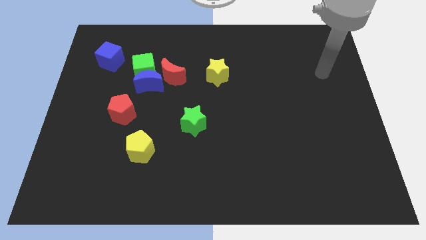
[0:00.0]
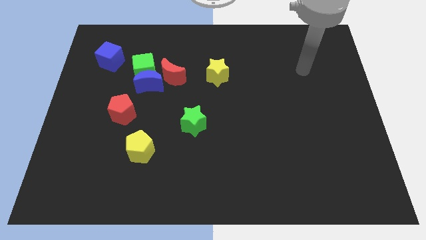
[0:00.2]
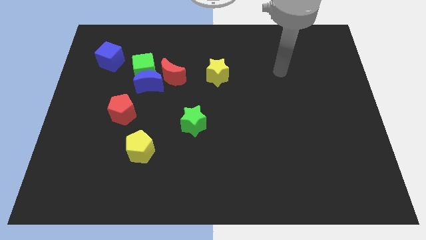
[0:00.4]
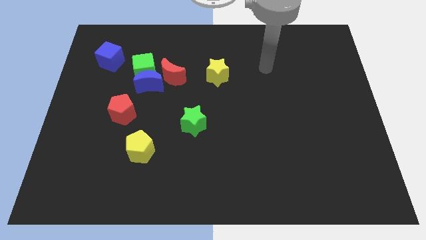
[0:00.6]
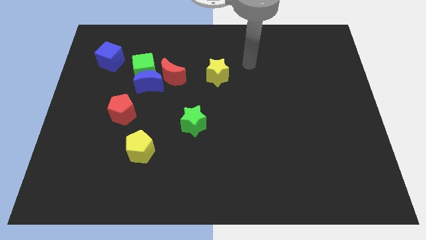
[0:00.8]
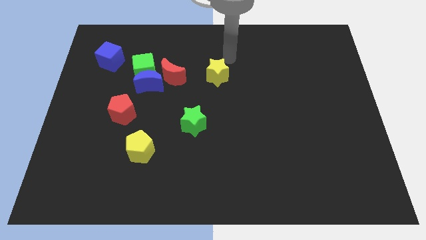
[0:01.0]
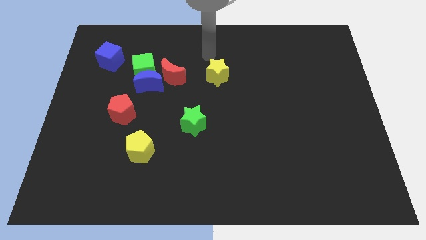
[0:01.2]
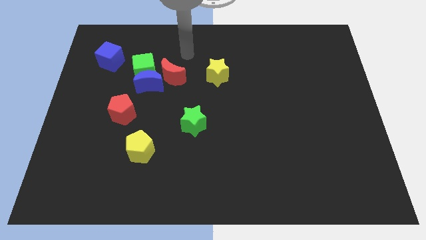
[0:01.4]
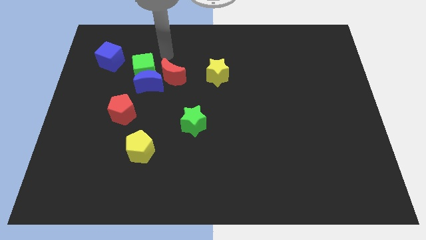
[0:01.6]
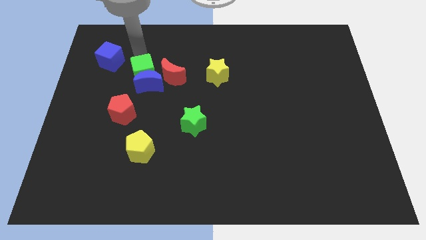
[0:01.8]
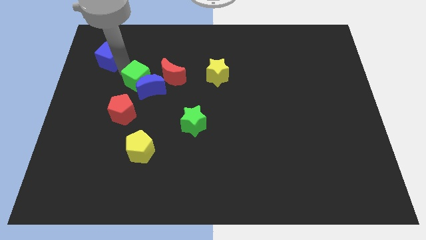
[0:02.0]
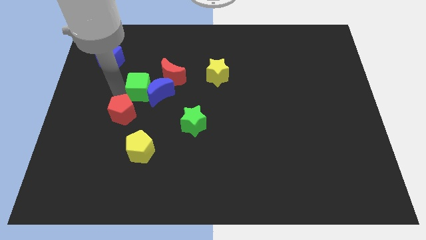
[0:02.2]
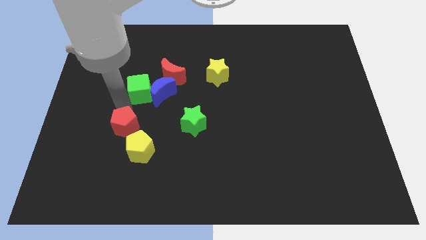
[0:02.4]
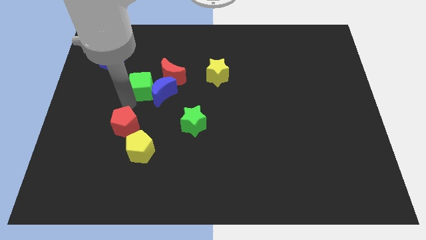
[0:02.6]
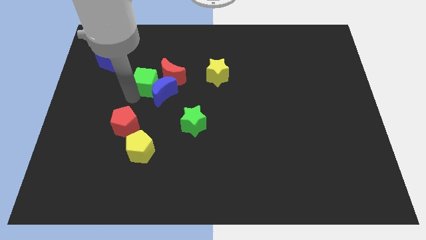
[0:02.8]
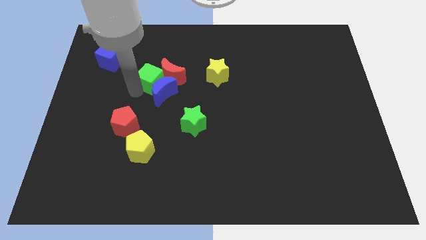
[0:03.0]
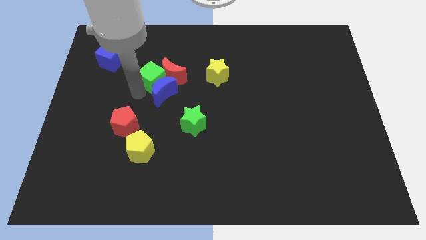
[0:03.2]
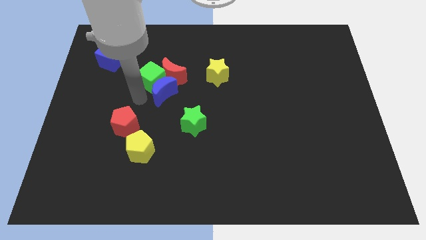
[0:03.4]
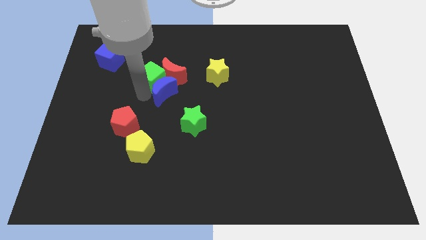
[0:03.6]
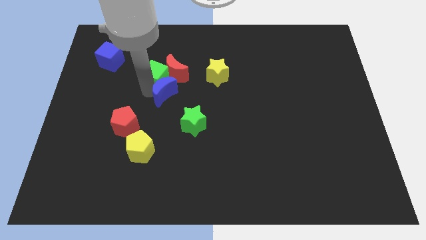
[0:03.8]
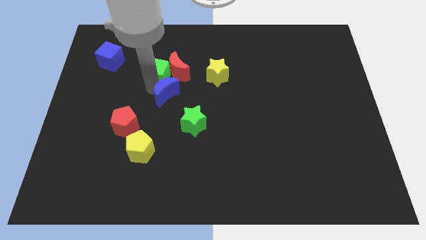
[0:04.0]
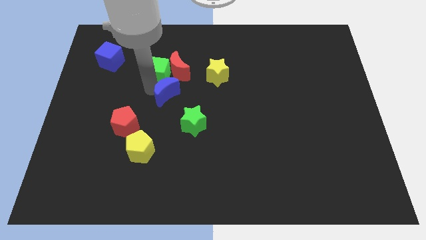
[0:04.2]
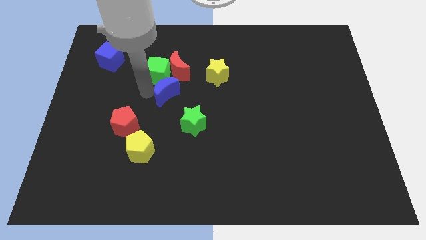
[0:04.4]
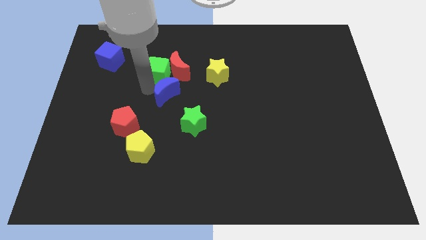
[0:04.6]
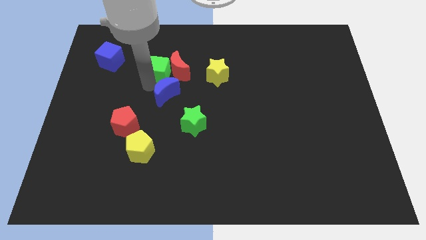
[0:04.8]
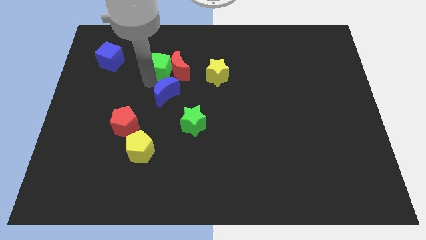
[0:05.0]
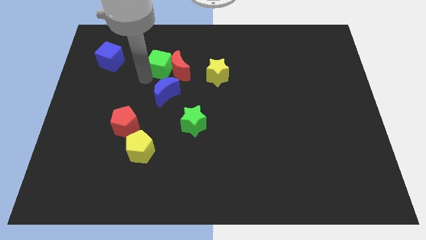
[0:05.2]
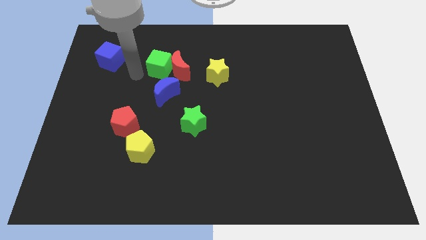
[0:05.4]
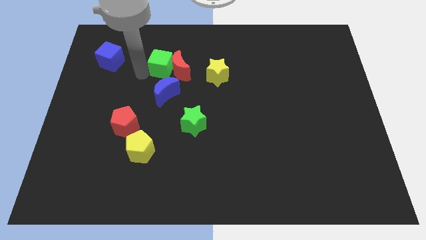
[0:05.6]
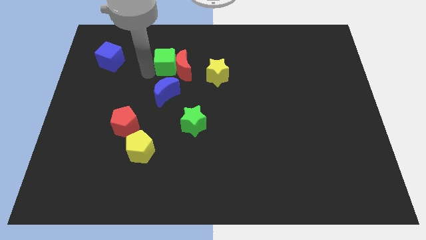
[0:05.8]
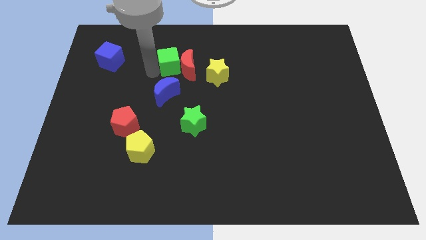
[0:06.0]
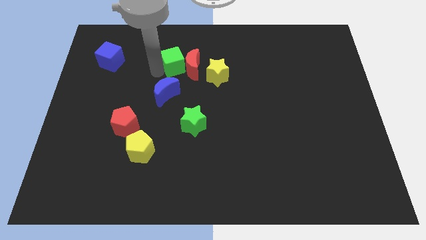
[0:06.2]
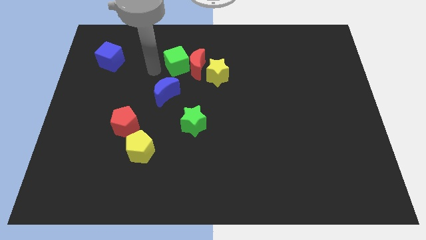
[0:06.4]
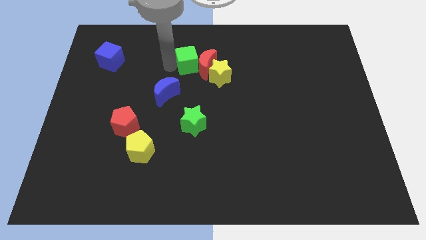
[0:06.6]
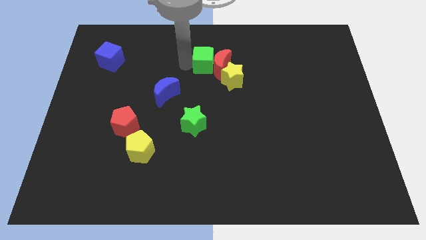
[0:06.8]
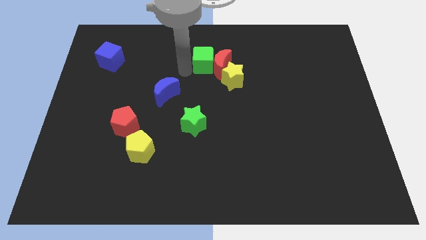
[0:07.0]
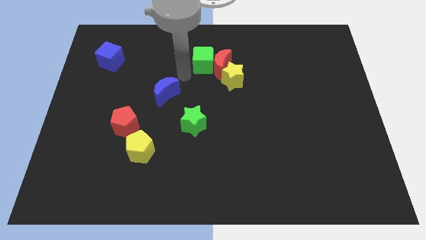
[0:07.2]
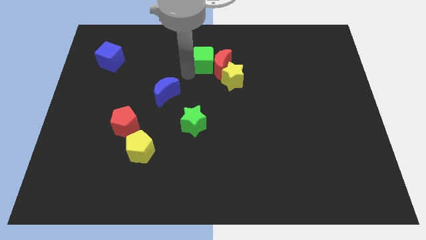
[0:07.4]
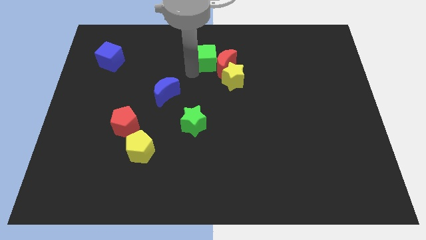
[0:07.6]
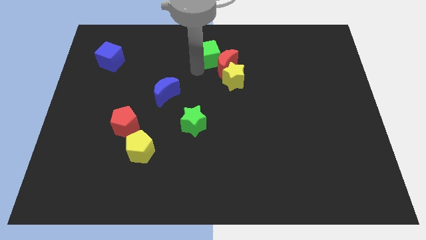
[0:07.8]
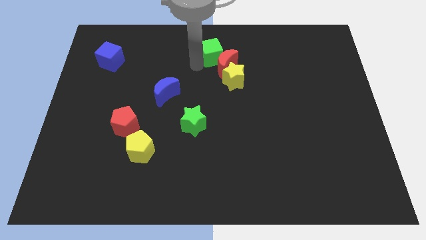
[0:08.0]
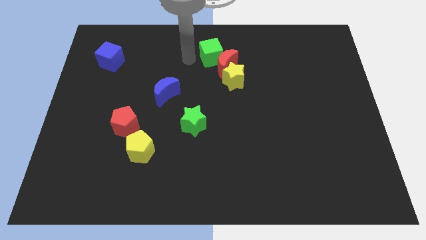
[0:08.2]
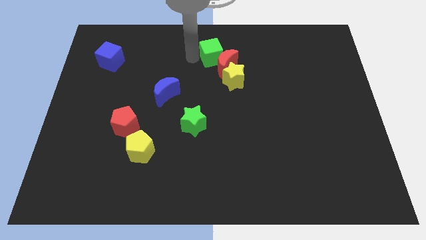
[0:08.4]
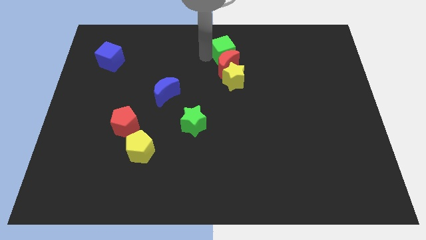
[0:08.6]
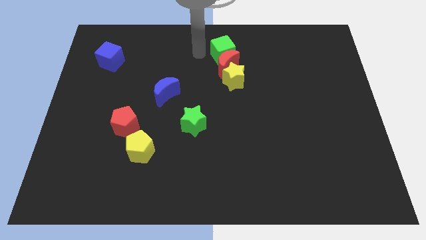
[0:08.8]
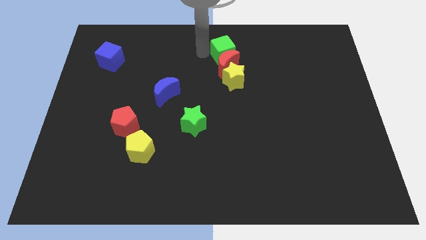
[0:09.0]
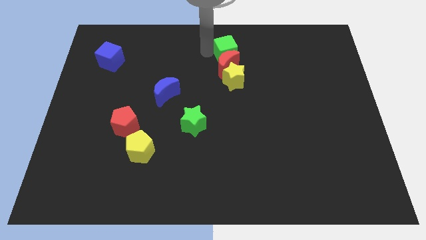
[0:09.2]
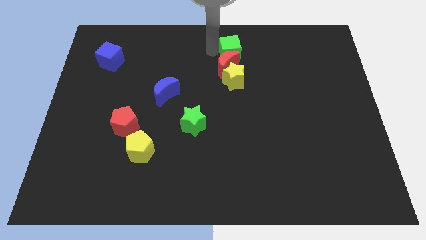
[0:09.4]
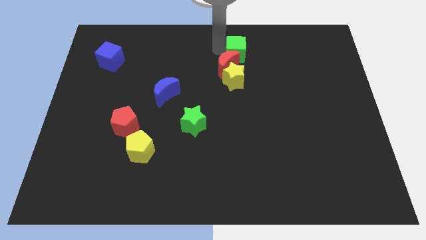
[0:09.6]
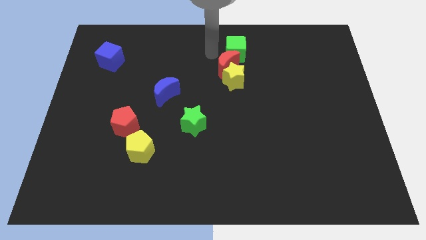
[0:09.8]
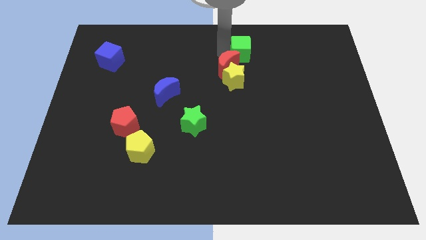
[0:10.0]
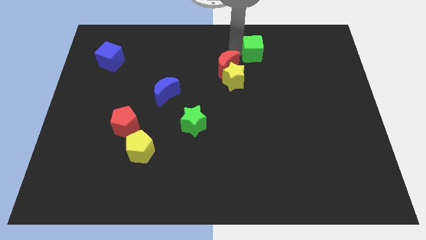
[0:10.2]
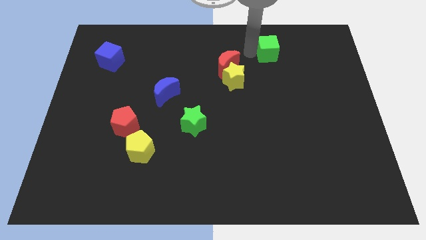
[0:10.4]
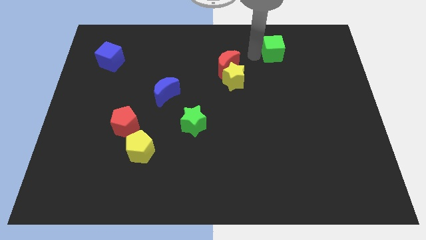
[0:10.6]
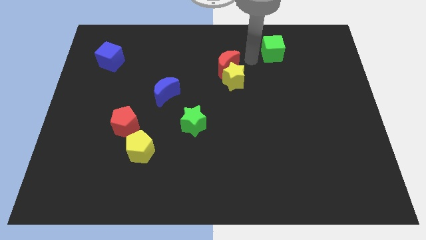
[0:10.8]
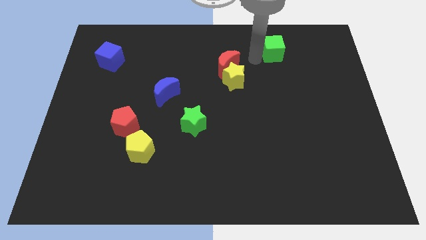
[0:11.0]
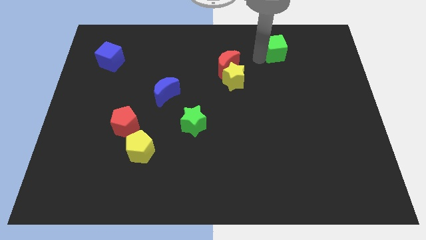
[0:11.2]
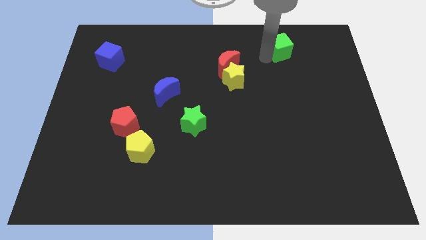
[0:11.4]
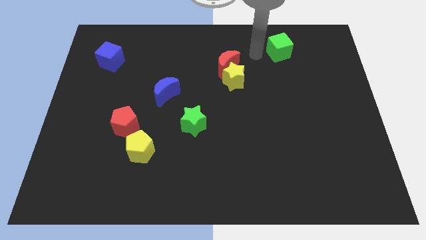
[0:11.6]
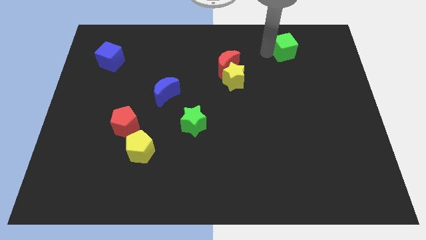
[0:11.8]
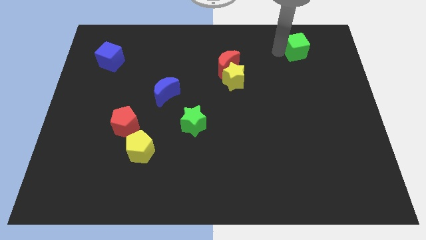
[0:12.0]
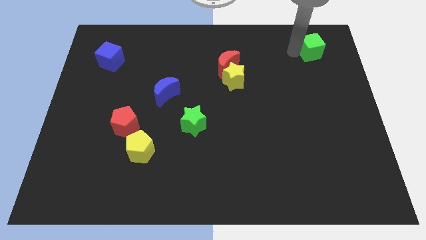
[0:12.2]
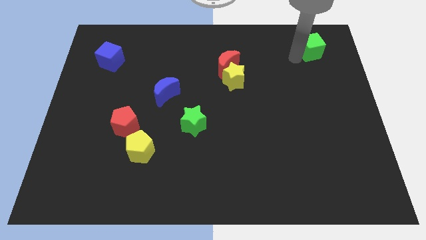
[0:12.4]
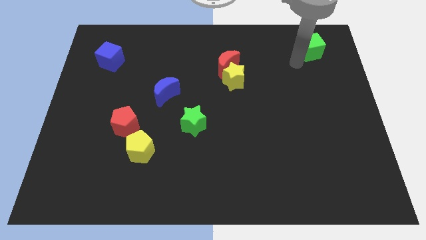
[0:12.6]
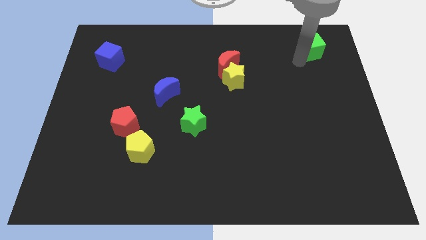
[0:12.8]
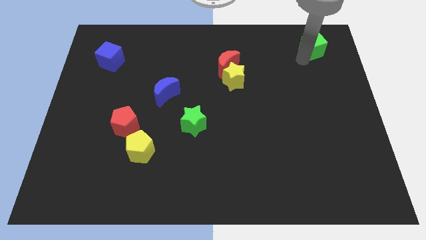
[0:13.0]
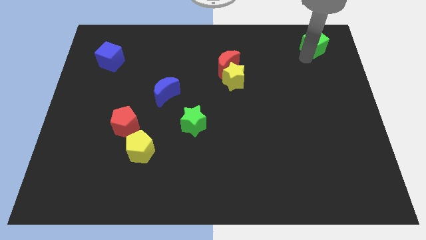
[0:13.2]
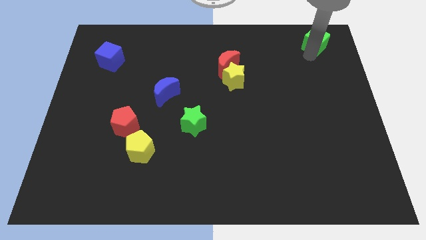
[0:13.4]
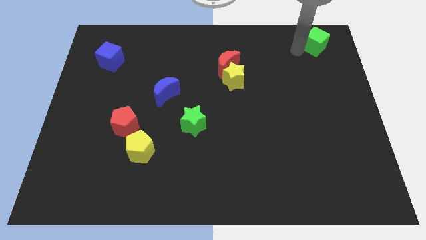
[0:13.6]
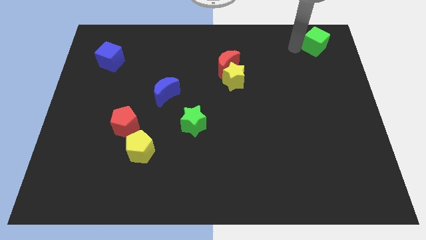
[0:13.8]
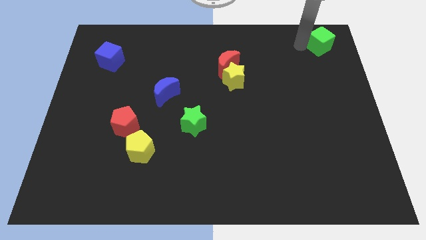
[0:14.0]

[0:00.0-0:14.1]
put the green cube to the top right of the board
